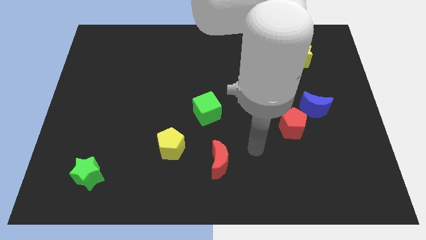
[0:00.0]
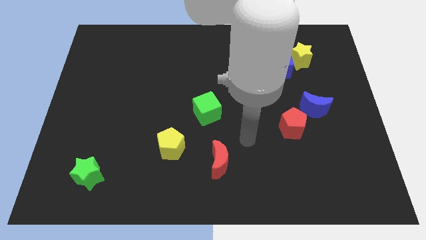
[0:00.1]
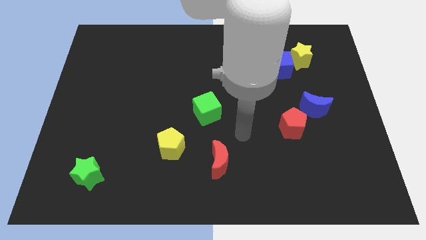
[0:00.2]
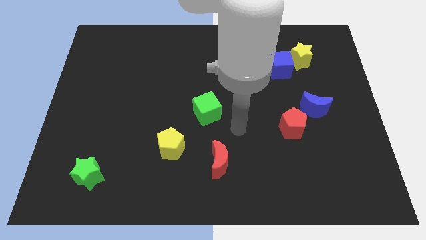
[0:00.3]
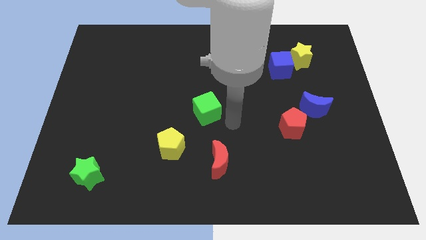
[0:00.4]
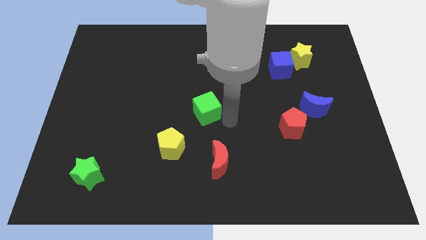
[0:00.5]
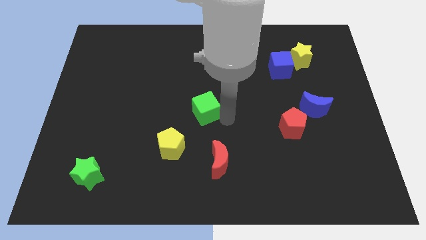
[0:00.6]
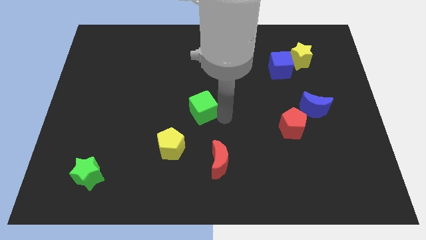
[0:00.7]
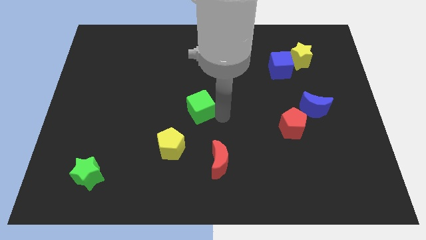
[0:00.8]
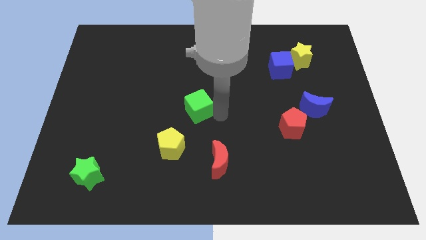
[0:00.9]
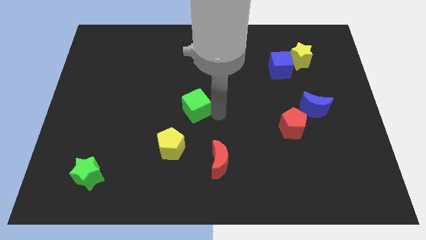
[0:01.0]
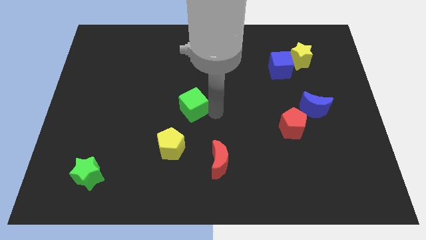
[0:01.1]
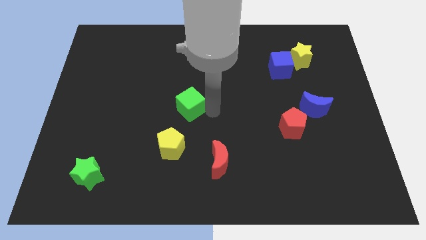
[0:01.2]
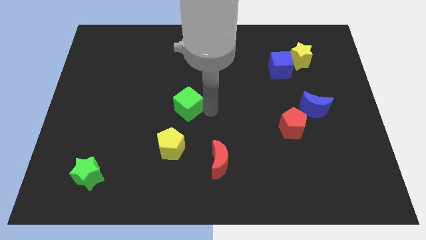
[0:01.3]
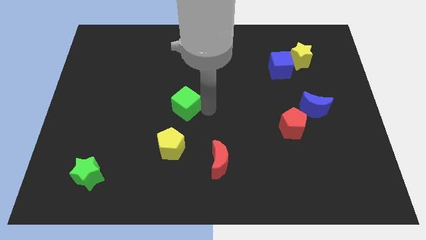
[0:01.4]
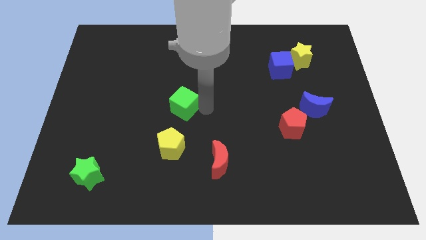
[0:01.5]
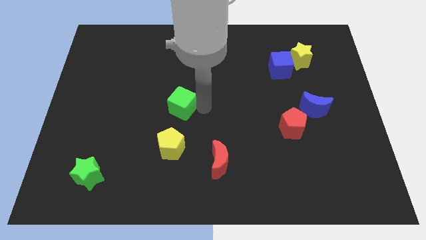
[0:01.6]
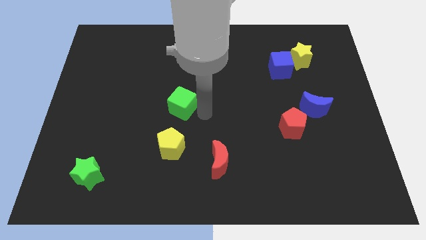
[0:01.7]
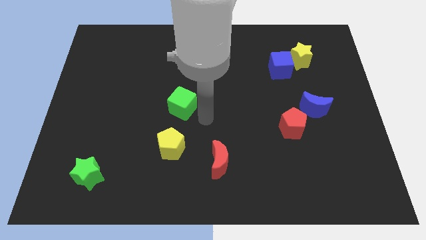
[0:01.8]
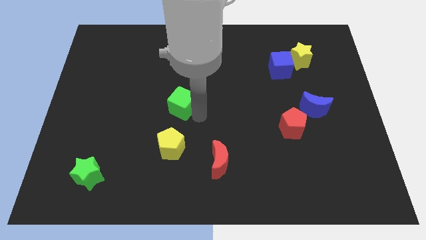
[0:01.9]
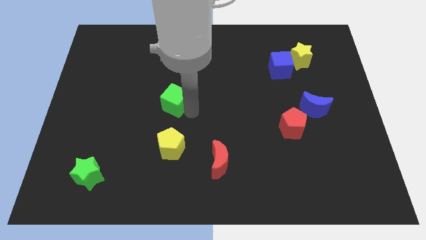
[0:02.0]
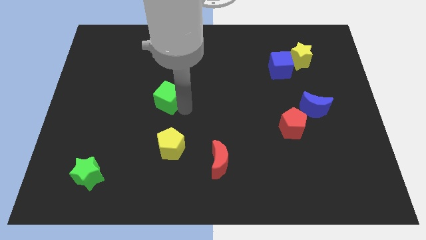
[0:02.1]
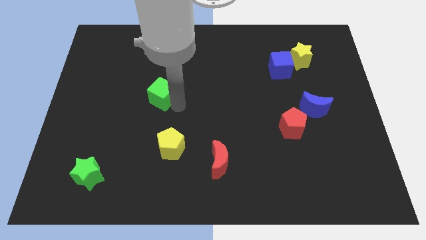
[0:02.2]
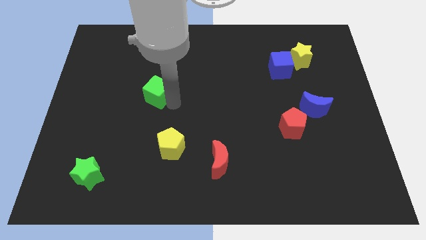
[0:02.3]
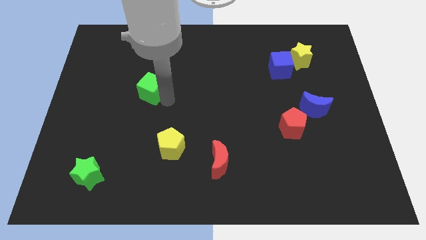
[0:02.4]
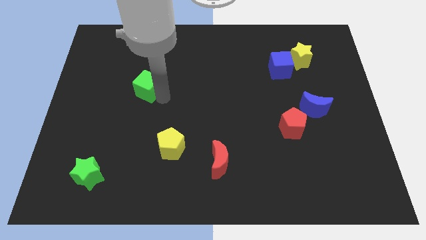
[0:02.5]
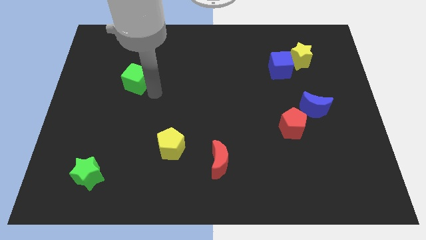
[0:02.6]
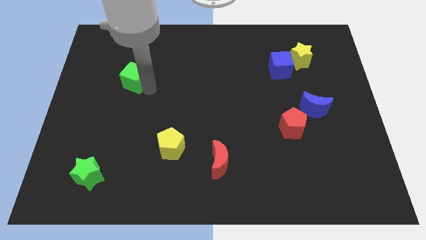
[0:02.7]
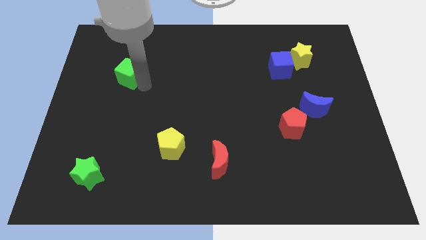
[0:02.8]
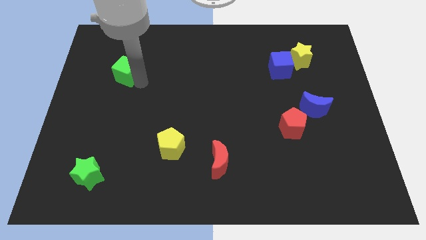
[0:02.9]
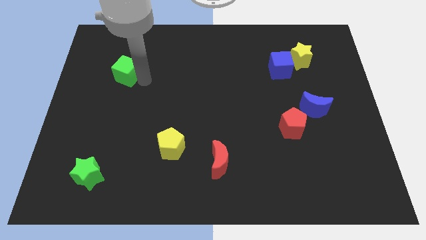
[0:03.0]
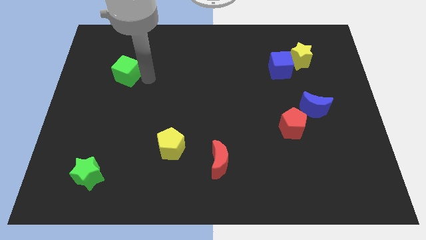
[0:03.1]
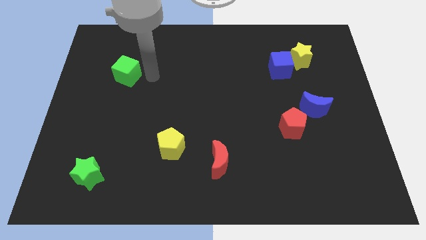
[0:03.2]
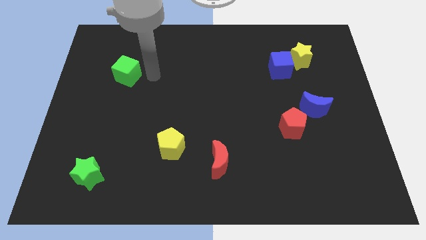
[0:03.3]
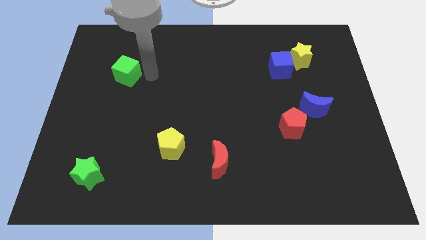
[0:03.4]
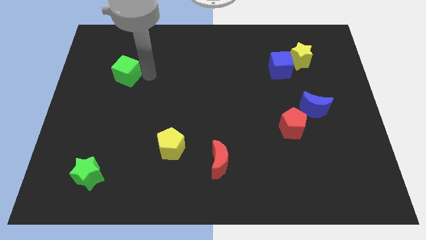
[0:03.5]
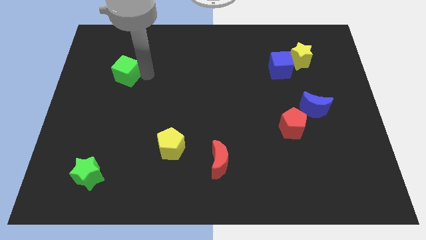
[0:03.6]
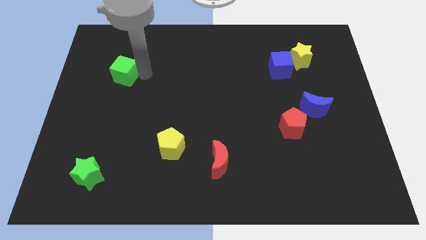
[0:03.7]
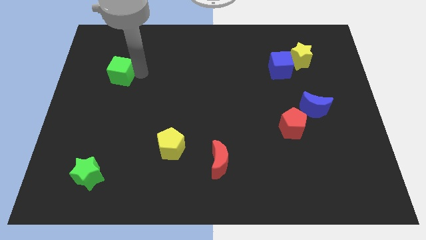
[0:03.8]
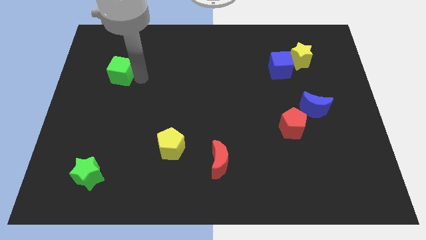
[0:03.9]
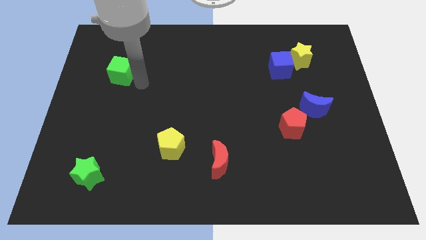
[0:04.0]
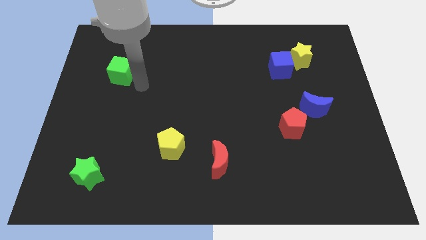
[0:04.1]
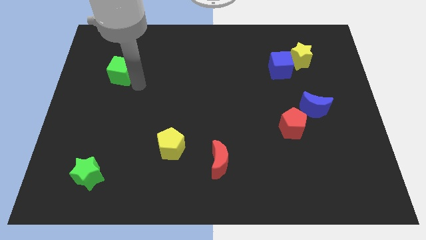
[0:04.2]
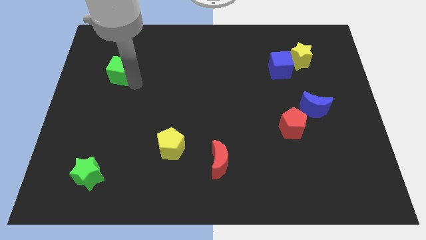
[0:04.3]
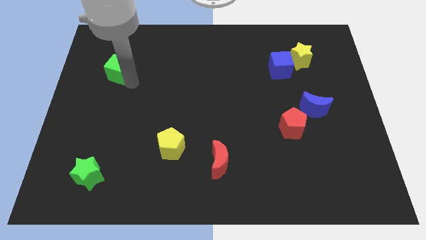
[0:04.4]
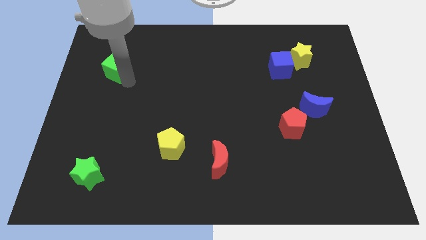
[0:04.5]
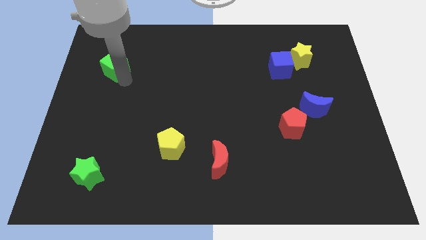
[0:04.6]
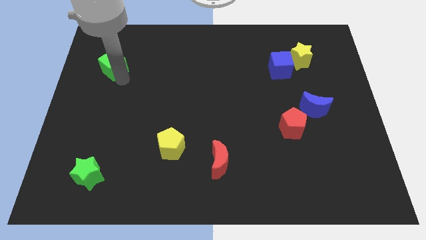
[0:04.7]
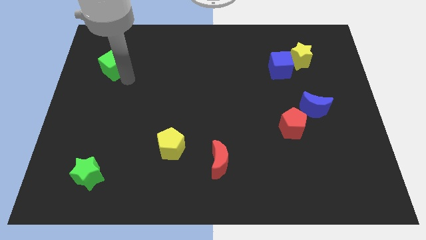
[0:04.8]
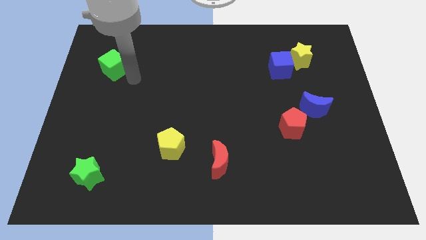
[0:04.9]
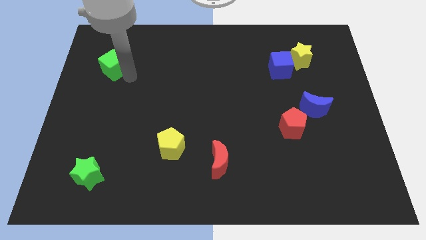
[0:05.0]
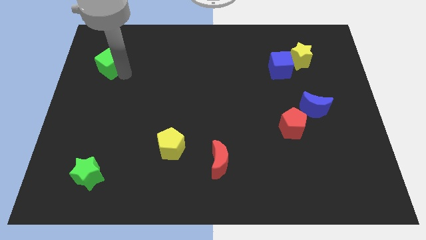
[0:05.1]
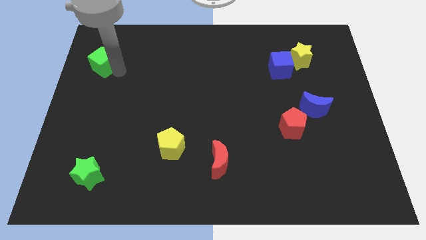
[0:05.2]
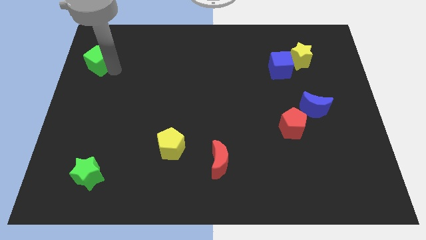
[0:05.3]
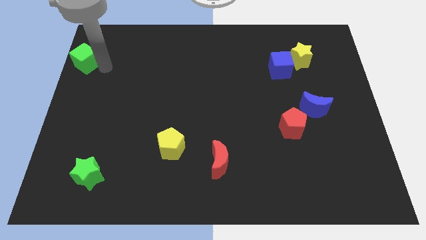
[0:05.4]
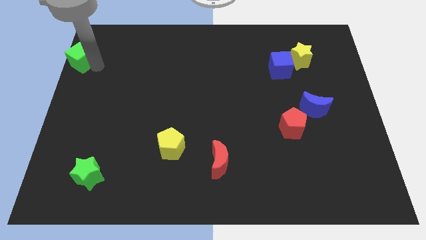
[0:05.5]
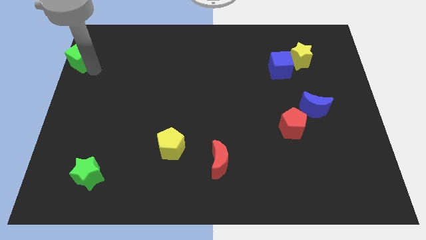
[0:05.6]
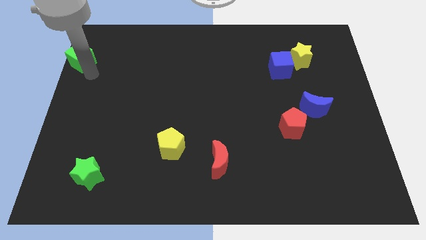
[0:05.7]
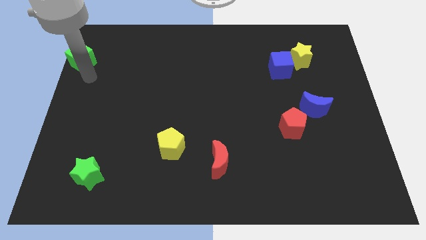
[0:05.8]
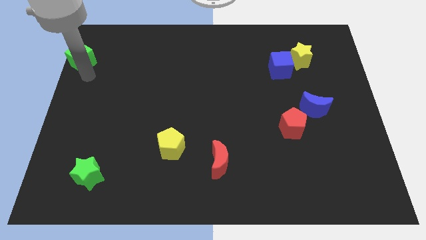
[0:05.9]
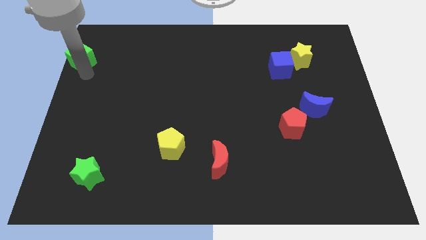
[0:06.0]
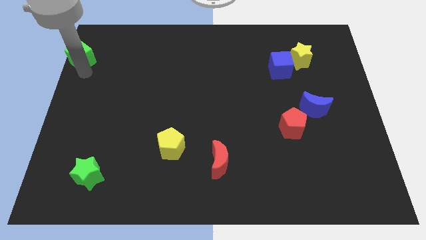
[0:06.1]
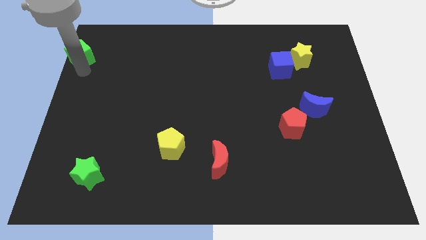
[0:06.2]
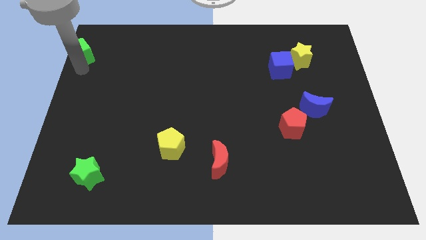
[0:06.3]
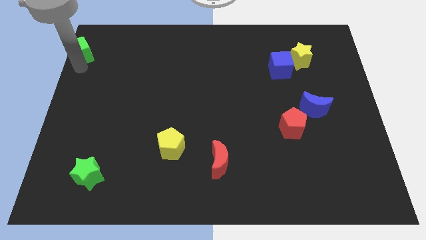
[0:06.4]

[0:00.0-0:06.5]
slide the green cube to the top left of the board

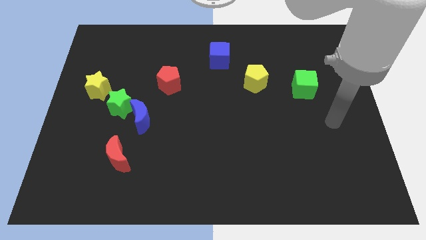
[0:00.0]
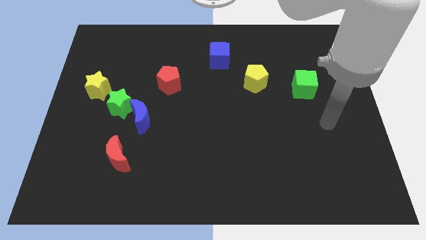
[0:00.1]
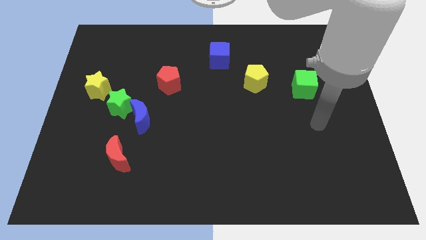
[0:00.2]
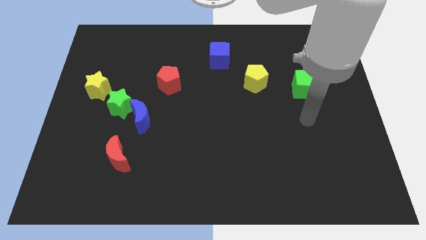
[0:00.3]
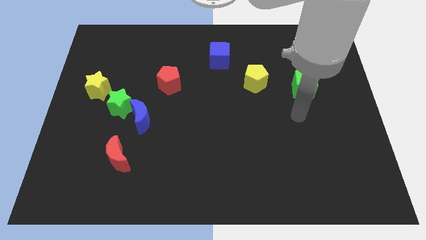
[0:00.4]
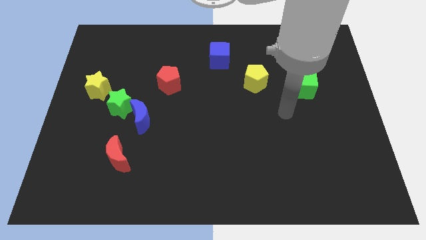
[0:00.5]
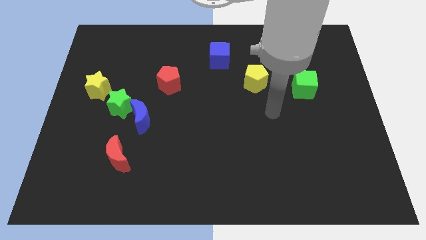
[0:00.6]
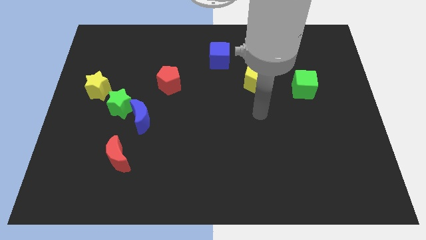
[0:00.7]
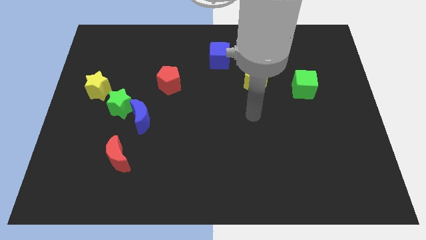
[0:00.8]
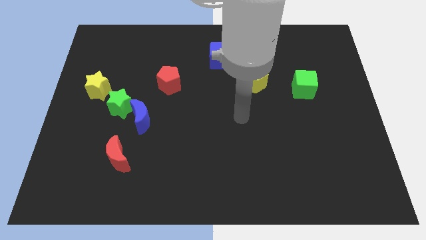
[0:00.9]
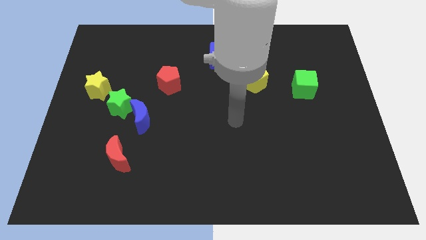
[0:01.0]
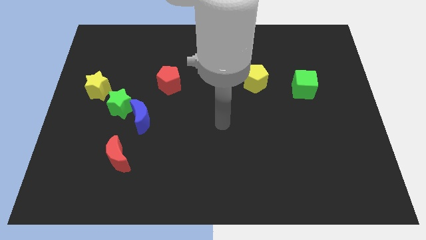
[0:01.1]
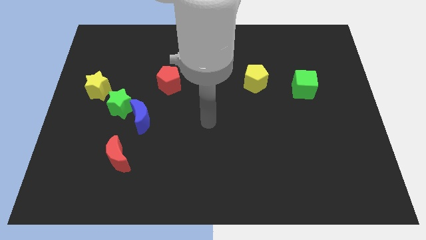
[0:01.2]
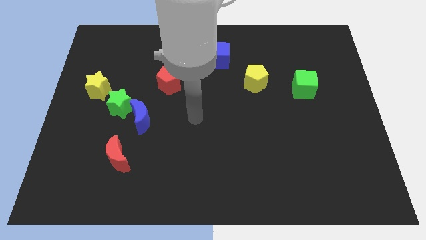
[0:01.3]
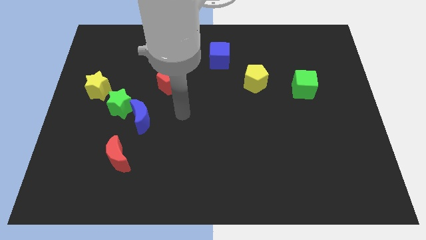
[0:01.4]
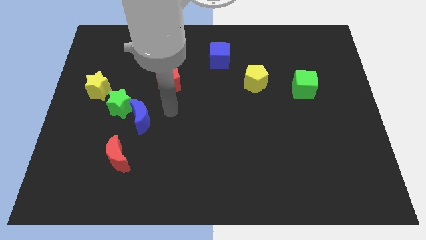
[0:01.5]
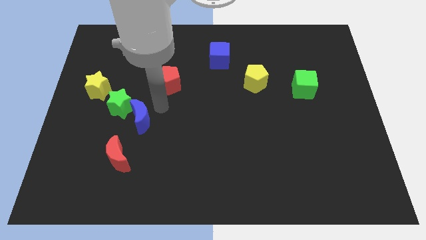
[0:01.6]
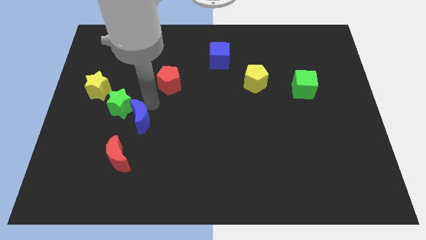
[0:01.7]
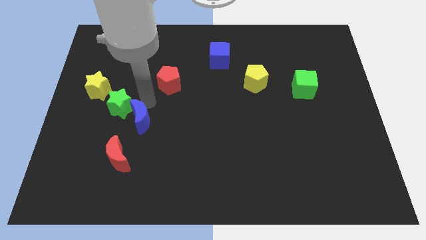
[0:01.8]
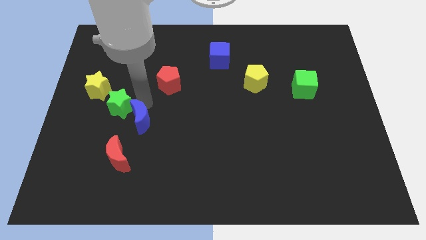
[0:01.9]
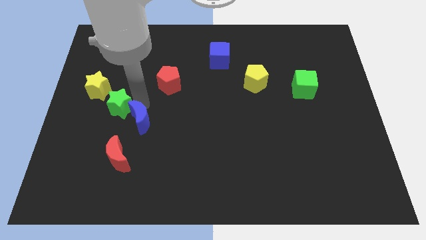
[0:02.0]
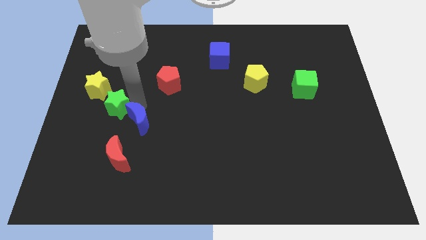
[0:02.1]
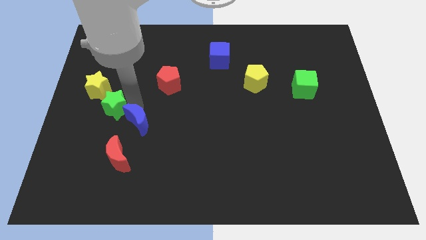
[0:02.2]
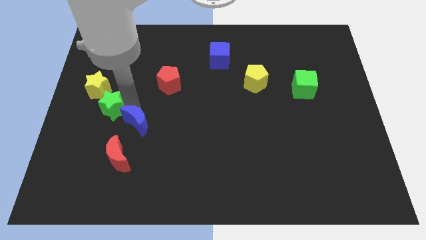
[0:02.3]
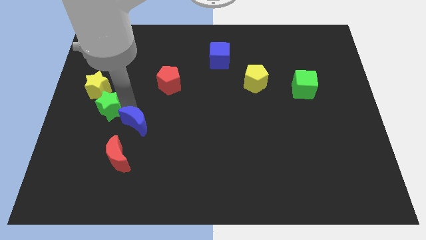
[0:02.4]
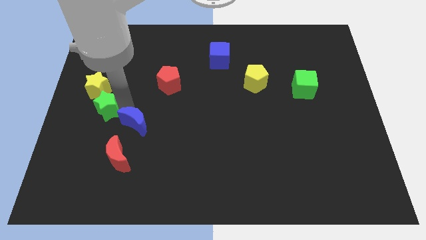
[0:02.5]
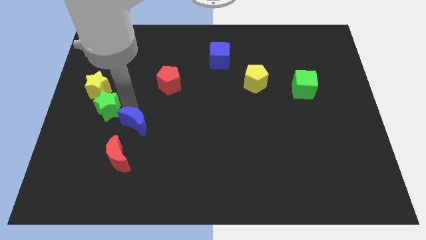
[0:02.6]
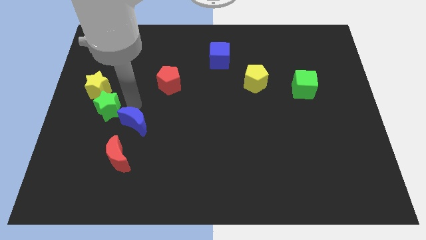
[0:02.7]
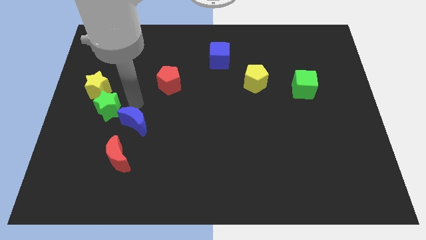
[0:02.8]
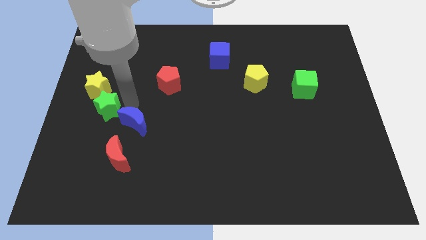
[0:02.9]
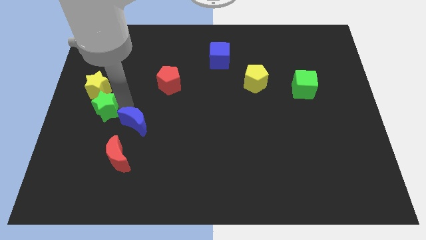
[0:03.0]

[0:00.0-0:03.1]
put the green star to the left side
